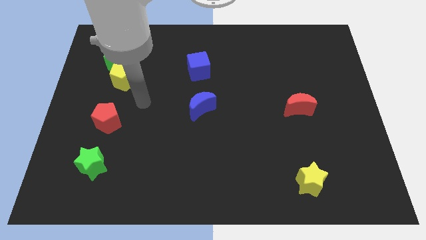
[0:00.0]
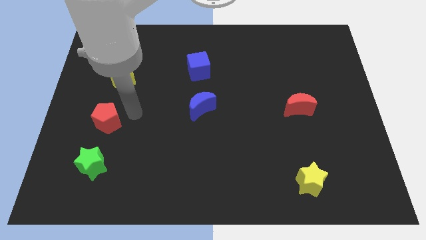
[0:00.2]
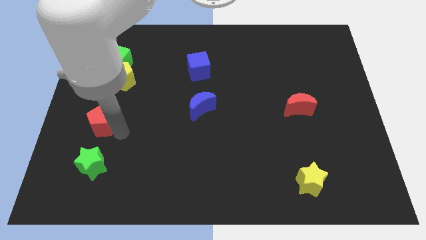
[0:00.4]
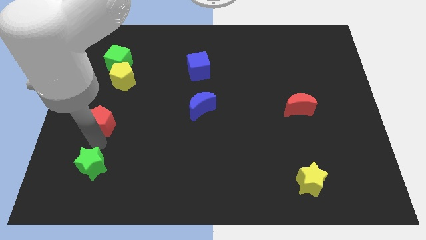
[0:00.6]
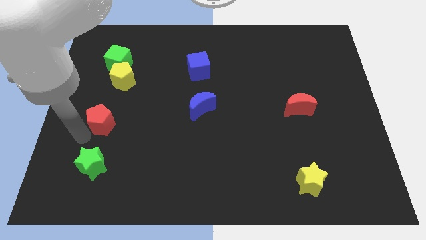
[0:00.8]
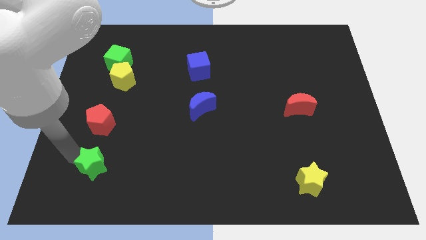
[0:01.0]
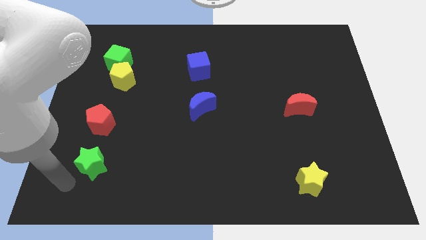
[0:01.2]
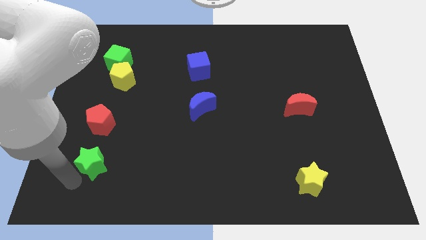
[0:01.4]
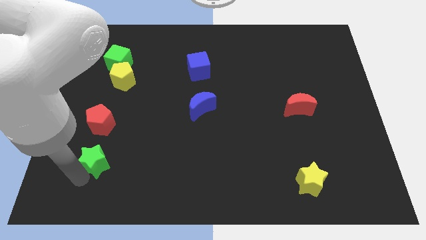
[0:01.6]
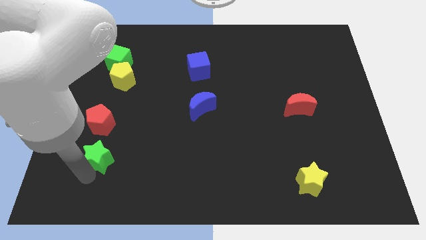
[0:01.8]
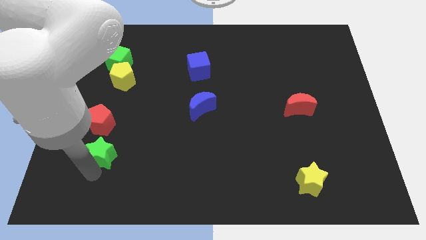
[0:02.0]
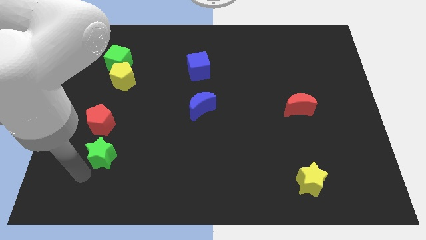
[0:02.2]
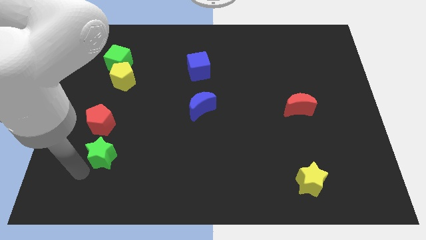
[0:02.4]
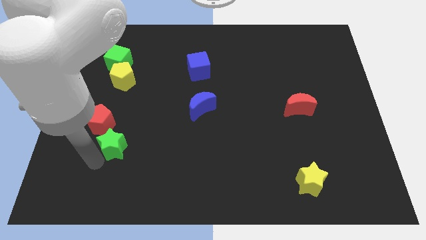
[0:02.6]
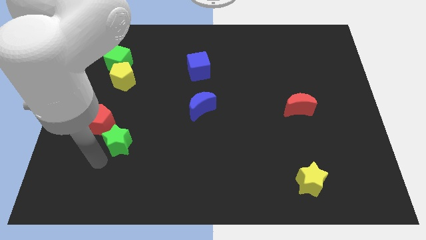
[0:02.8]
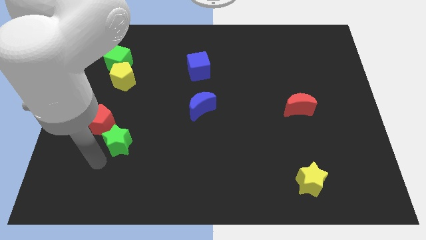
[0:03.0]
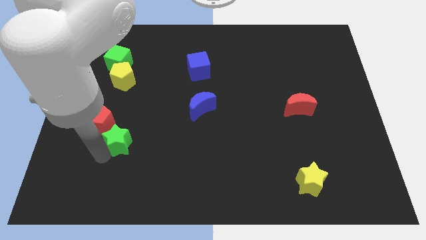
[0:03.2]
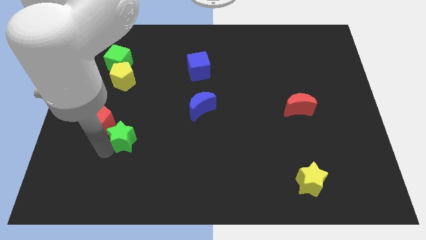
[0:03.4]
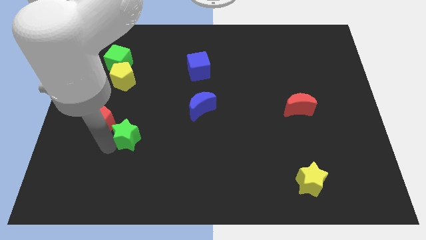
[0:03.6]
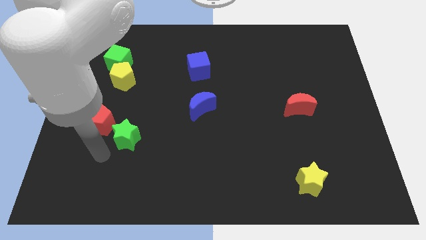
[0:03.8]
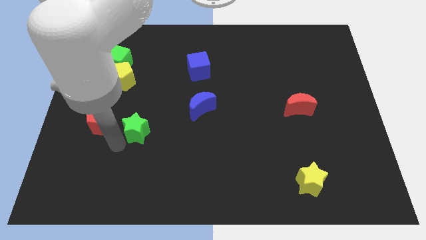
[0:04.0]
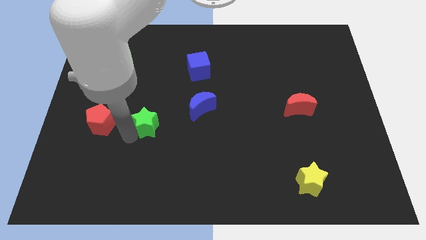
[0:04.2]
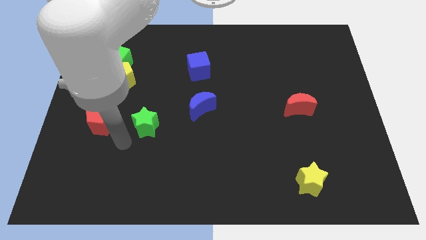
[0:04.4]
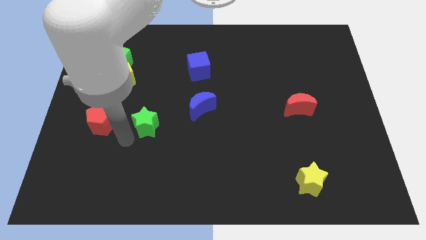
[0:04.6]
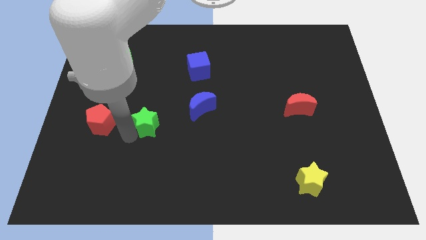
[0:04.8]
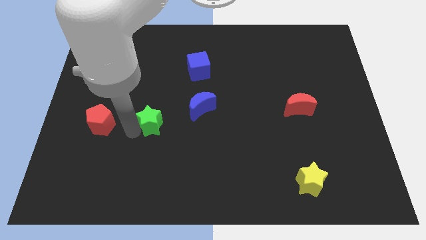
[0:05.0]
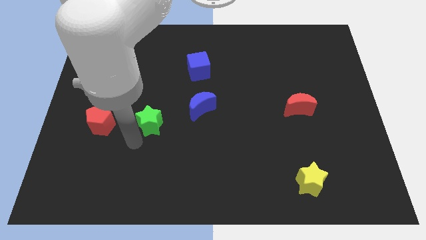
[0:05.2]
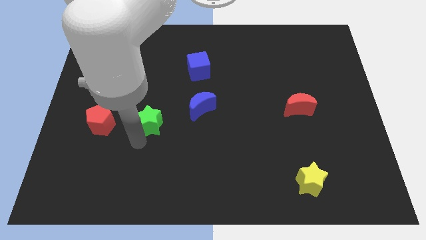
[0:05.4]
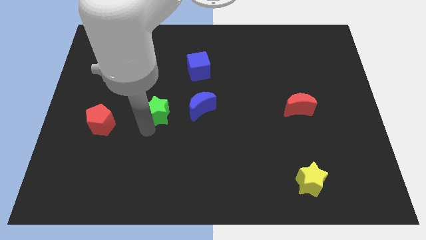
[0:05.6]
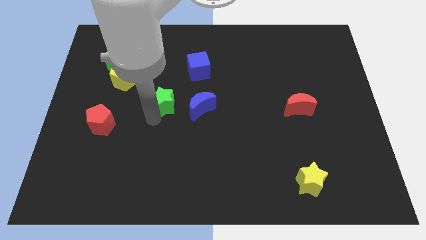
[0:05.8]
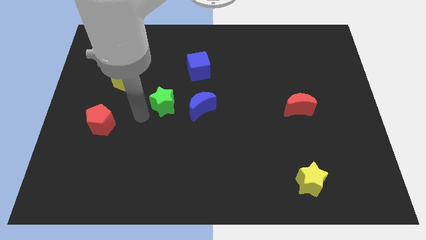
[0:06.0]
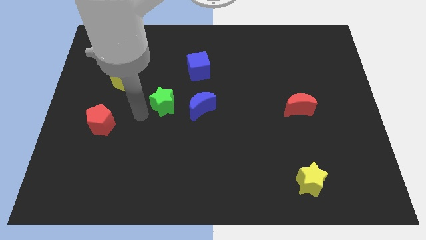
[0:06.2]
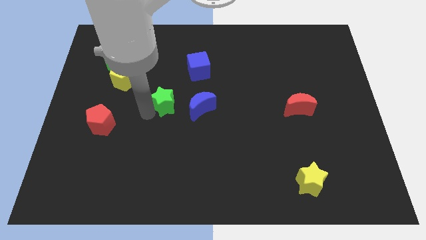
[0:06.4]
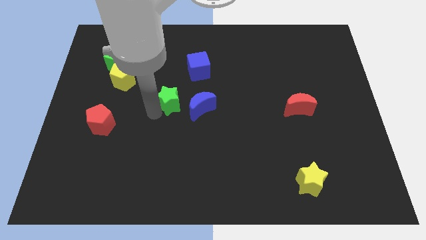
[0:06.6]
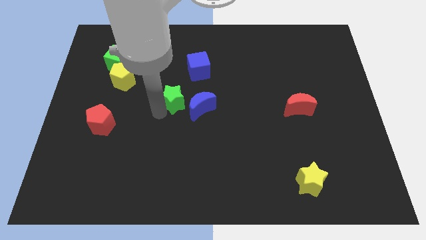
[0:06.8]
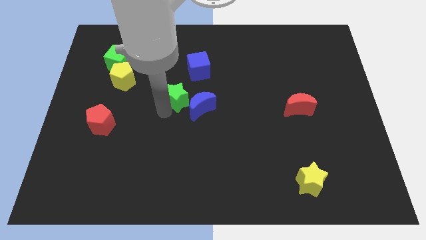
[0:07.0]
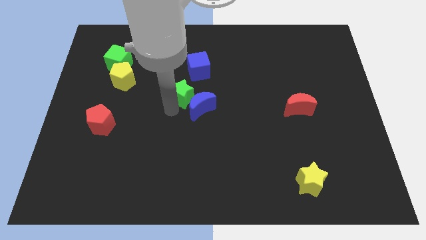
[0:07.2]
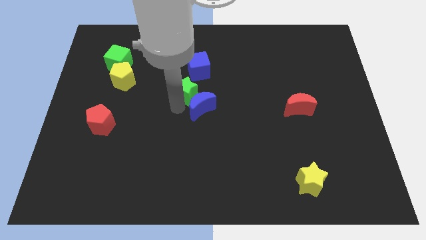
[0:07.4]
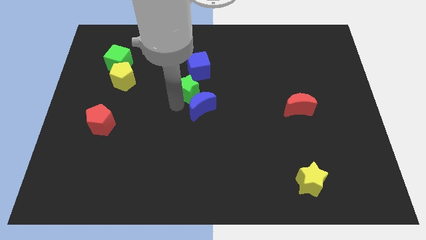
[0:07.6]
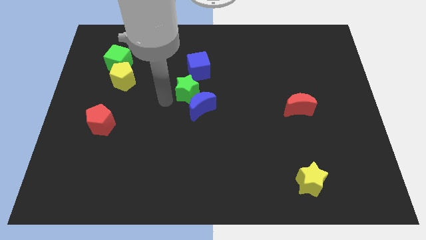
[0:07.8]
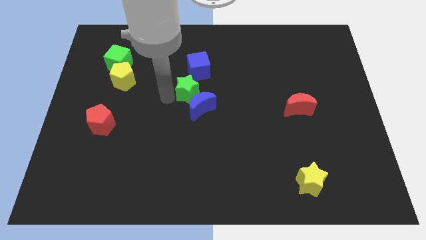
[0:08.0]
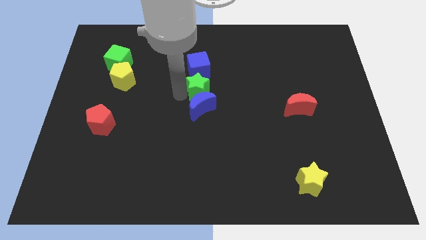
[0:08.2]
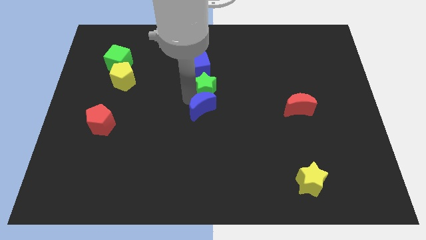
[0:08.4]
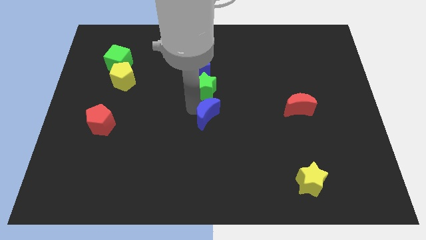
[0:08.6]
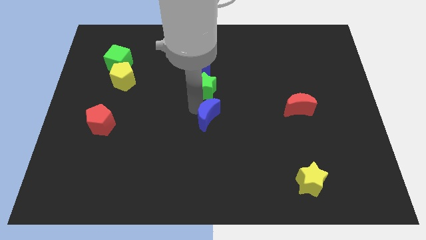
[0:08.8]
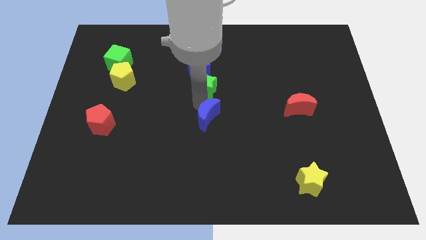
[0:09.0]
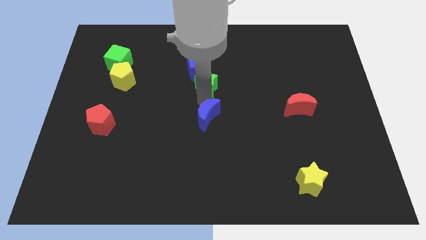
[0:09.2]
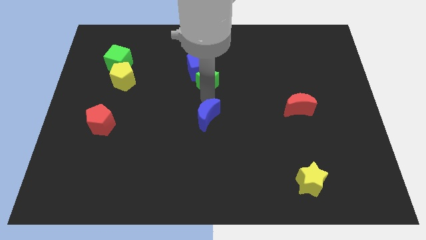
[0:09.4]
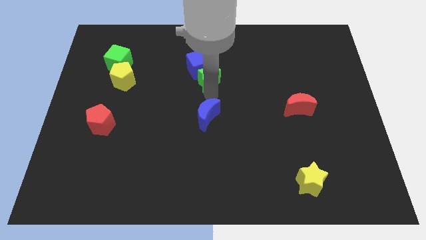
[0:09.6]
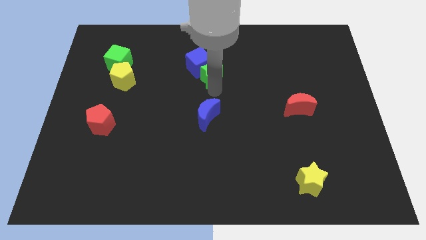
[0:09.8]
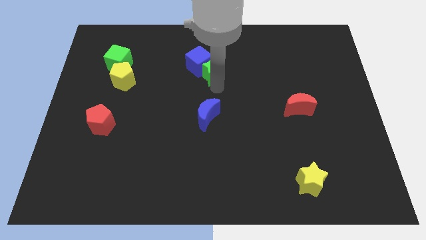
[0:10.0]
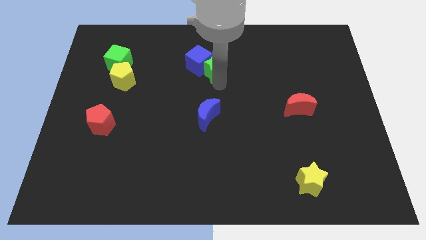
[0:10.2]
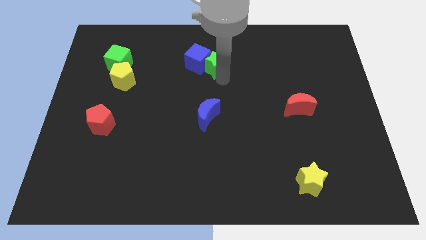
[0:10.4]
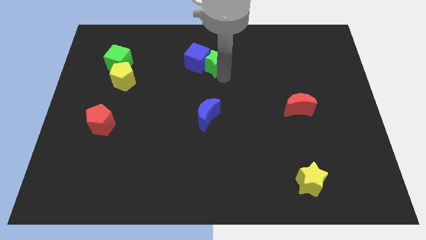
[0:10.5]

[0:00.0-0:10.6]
move the green star diagonally up and to the right of the blue cube

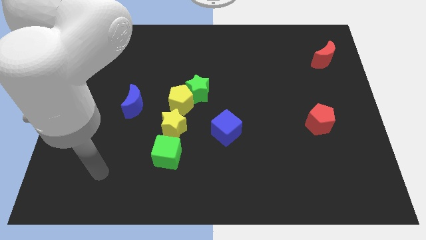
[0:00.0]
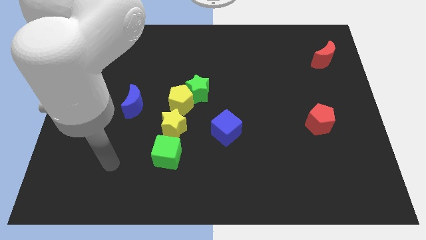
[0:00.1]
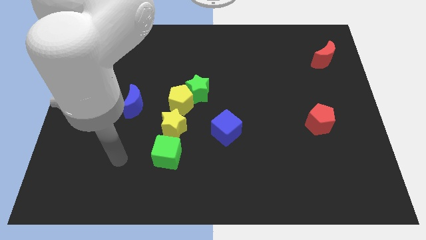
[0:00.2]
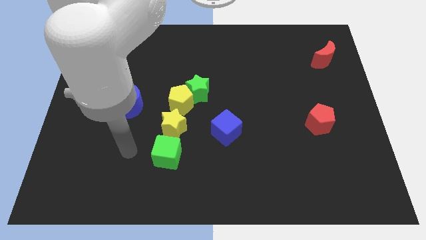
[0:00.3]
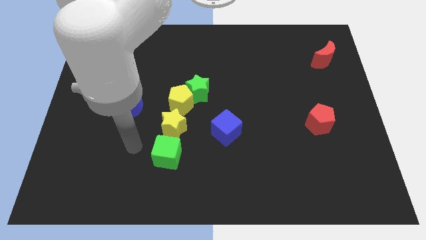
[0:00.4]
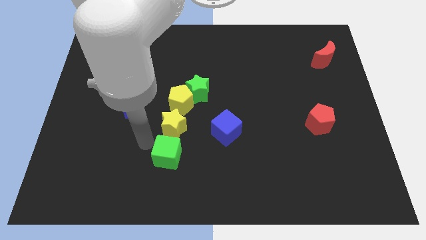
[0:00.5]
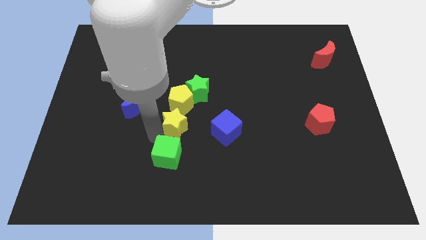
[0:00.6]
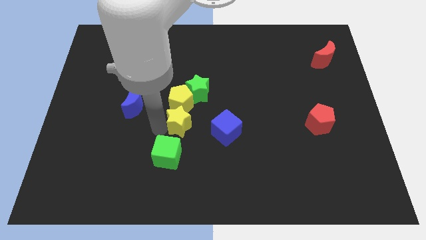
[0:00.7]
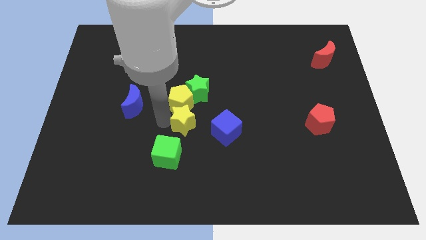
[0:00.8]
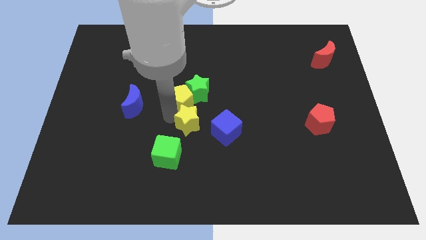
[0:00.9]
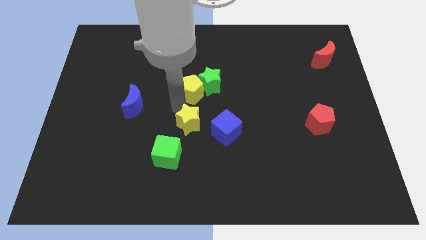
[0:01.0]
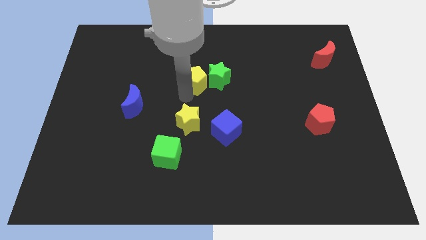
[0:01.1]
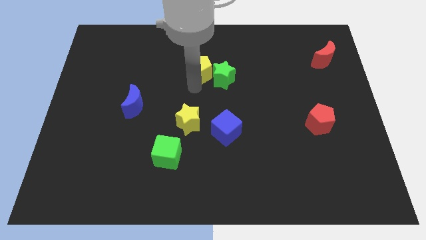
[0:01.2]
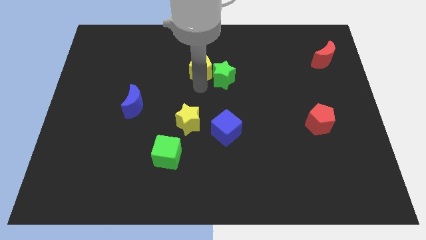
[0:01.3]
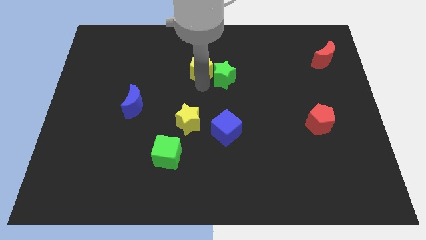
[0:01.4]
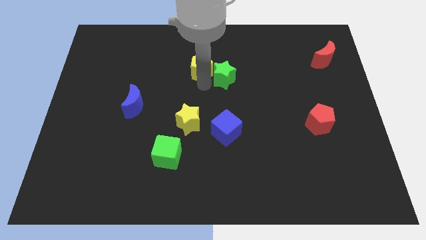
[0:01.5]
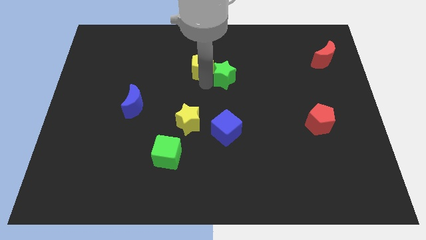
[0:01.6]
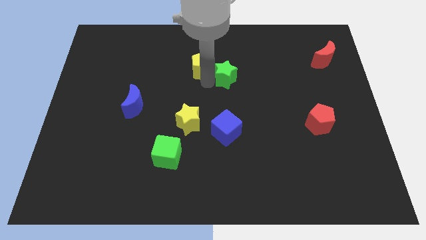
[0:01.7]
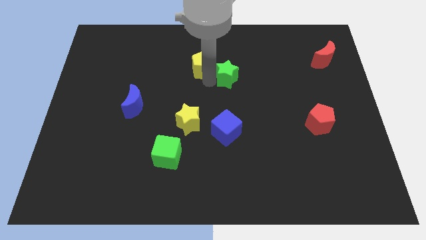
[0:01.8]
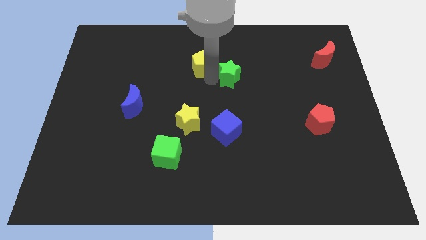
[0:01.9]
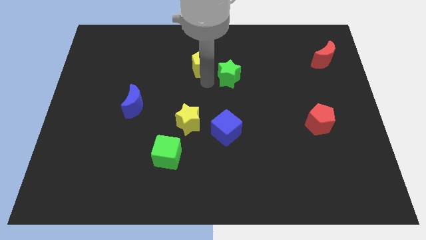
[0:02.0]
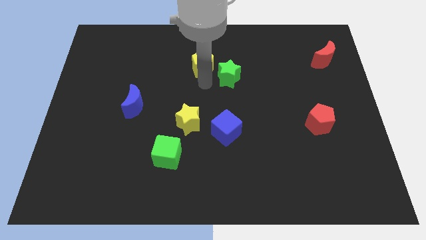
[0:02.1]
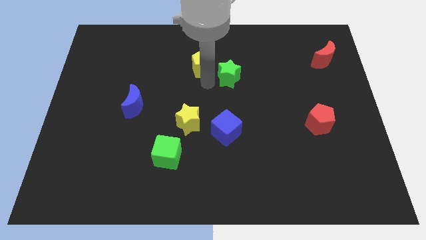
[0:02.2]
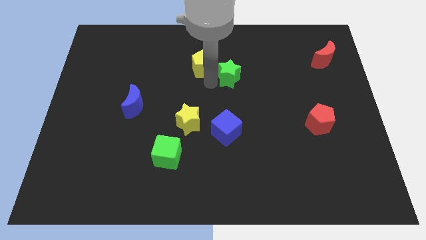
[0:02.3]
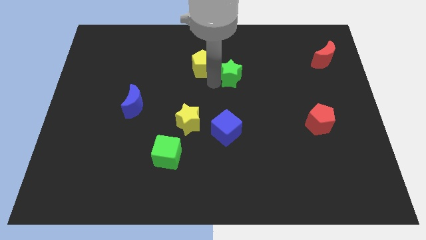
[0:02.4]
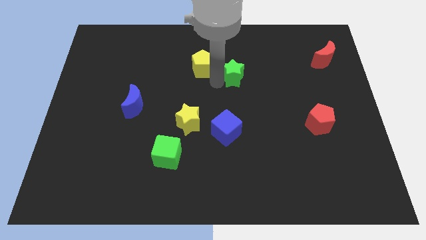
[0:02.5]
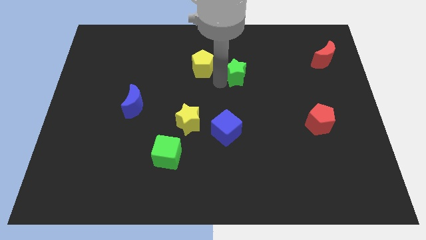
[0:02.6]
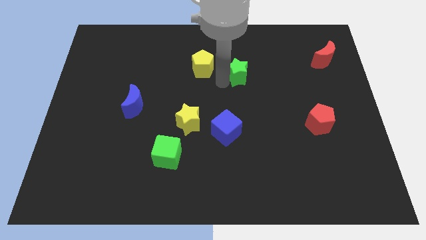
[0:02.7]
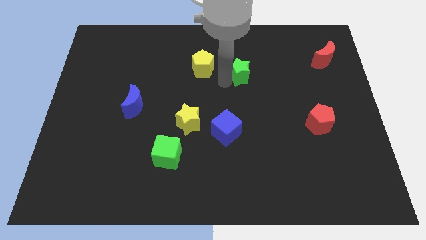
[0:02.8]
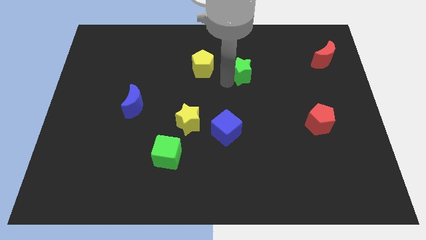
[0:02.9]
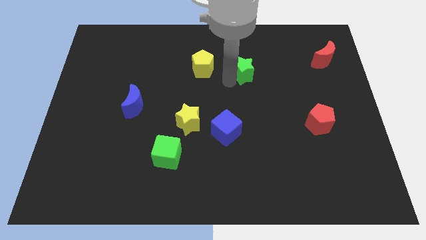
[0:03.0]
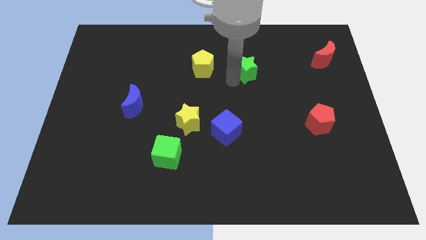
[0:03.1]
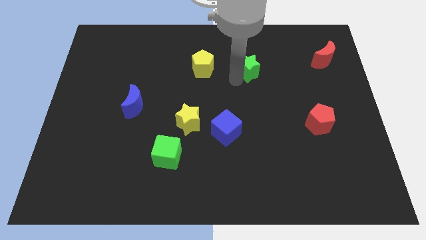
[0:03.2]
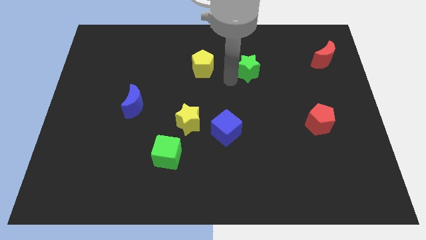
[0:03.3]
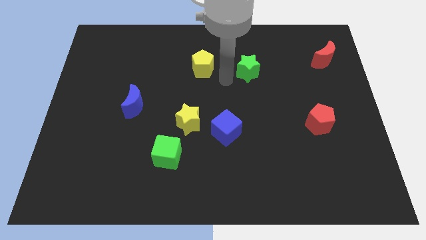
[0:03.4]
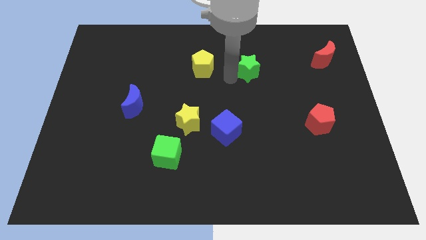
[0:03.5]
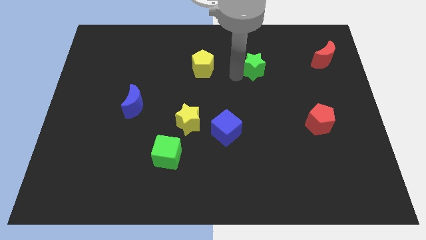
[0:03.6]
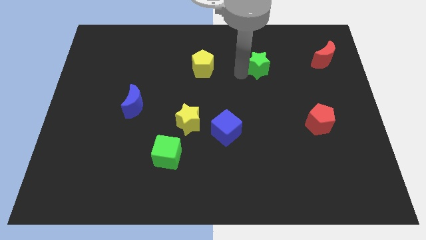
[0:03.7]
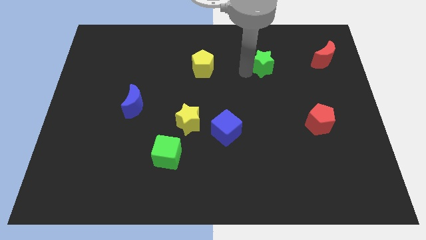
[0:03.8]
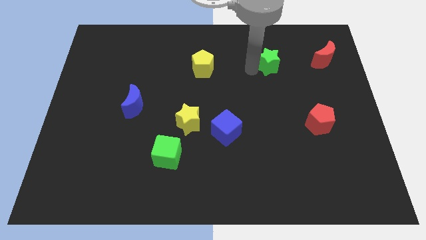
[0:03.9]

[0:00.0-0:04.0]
move the green star just left of the red moon
